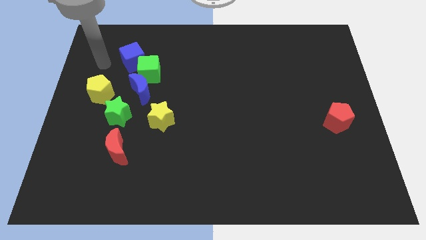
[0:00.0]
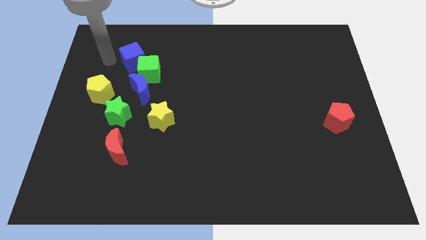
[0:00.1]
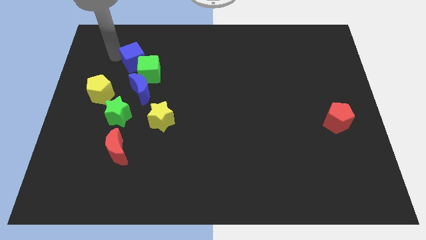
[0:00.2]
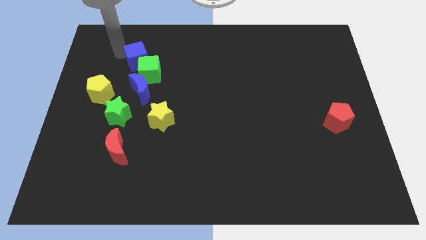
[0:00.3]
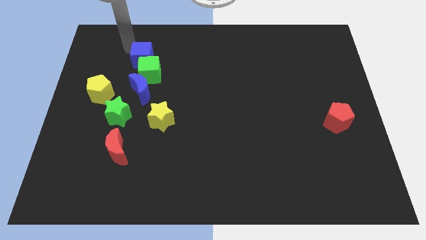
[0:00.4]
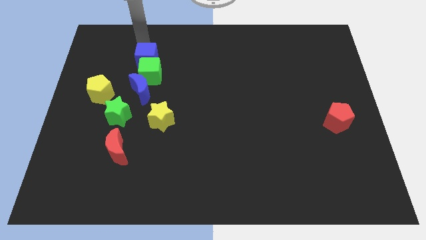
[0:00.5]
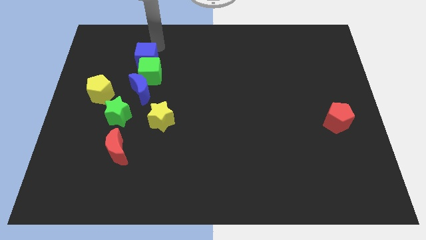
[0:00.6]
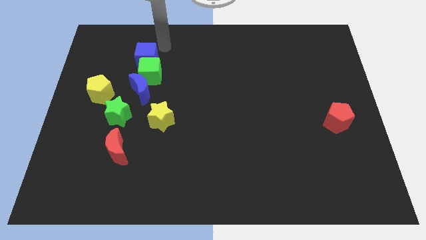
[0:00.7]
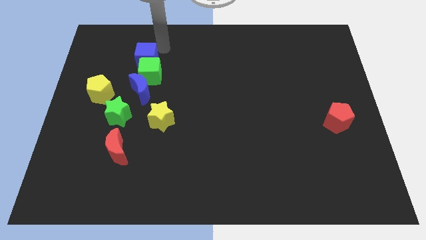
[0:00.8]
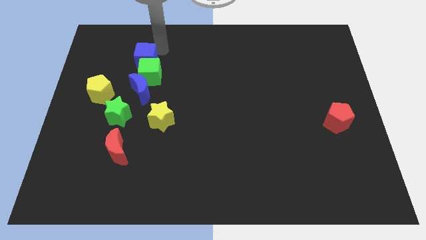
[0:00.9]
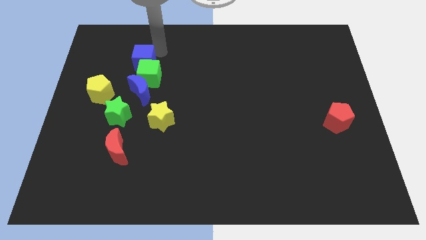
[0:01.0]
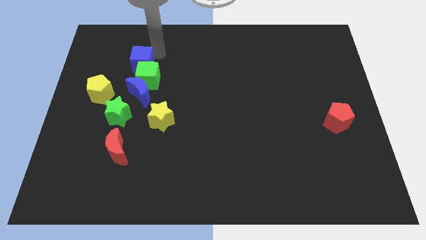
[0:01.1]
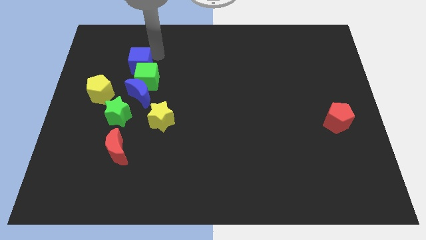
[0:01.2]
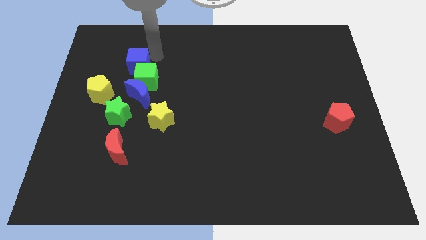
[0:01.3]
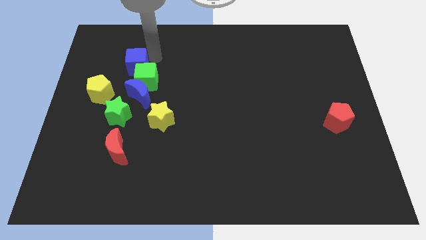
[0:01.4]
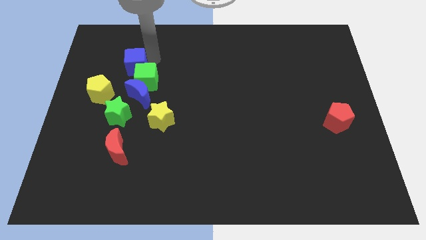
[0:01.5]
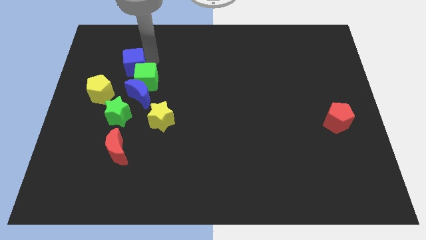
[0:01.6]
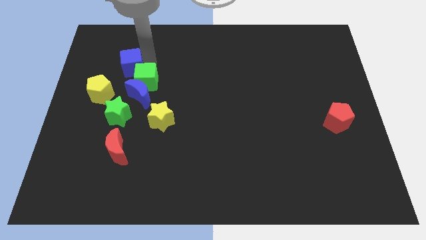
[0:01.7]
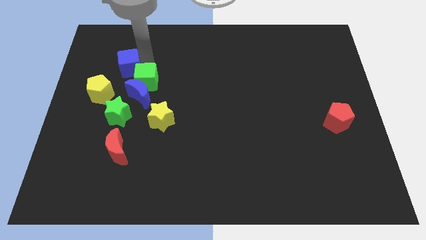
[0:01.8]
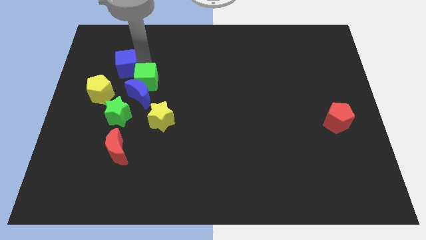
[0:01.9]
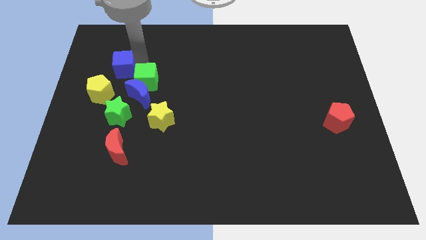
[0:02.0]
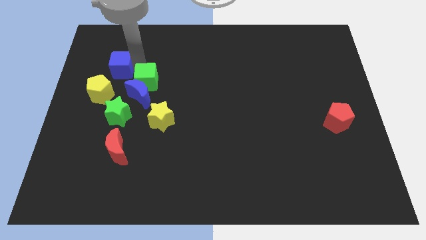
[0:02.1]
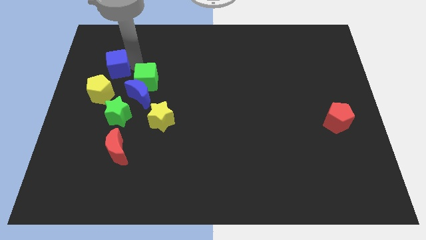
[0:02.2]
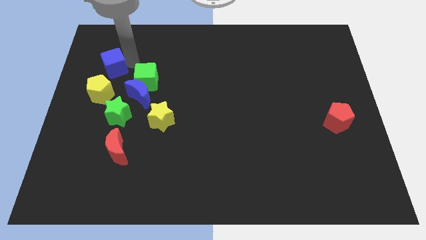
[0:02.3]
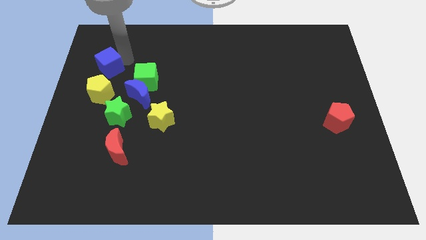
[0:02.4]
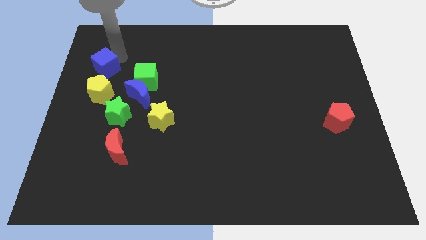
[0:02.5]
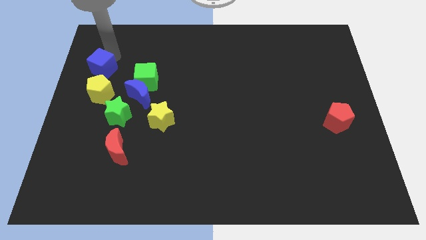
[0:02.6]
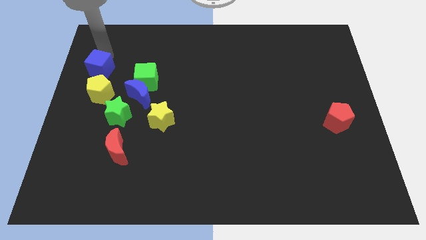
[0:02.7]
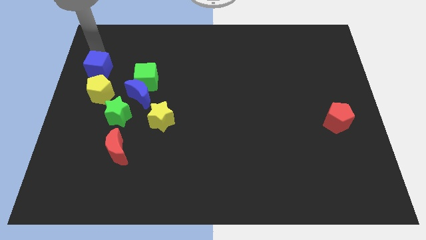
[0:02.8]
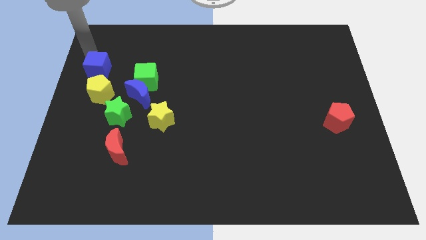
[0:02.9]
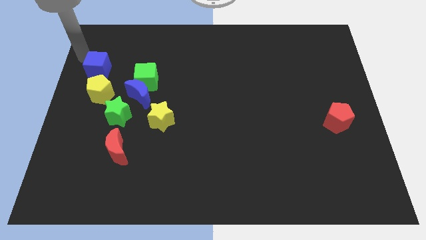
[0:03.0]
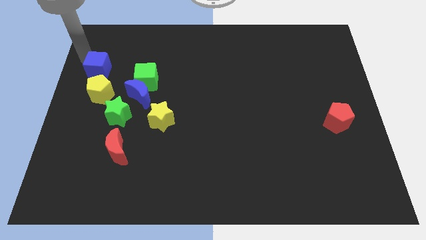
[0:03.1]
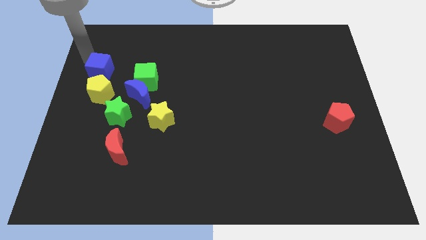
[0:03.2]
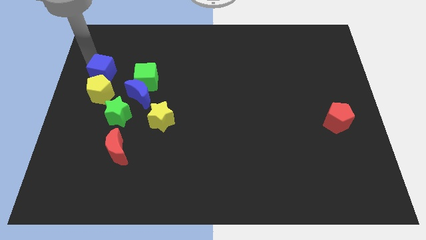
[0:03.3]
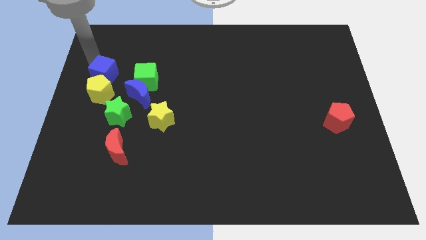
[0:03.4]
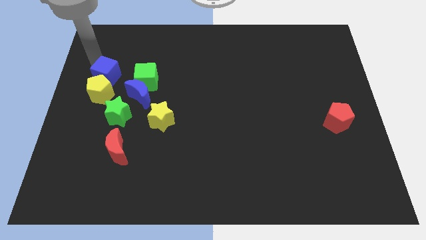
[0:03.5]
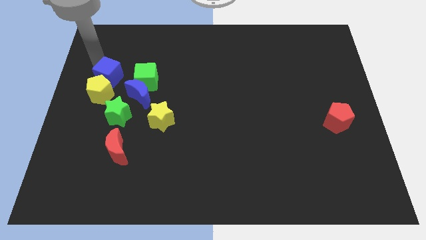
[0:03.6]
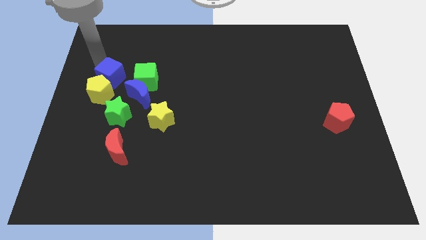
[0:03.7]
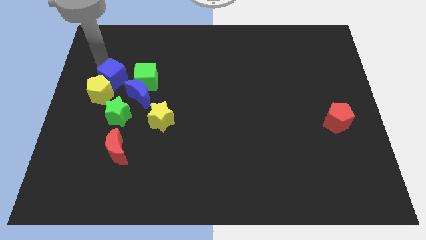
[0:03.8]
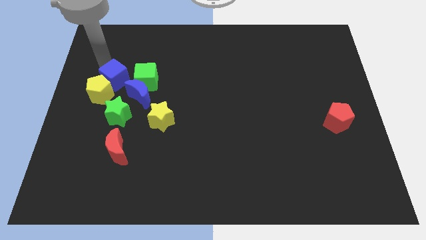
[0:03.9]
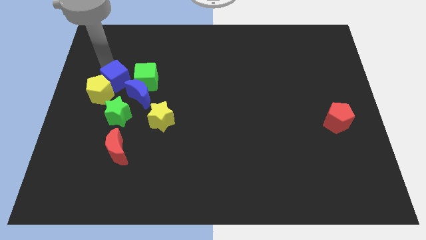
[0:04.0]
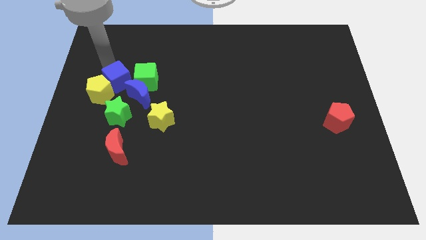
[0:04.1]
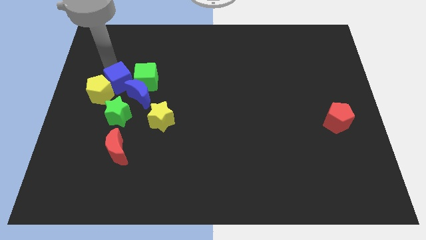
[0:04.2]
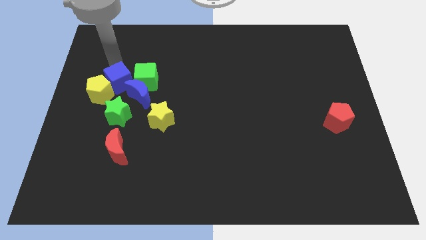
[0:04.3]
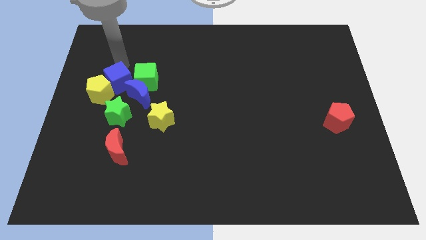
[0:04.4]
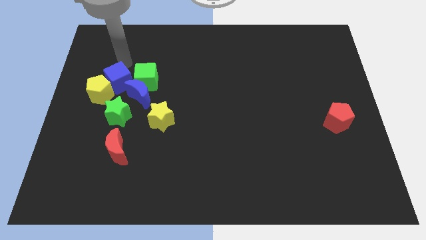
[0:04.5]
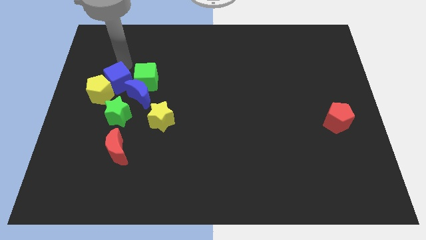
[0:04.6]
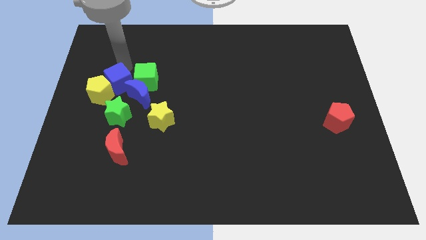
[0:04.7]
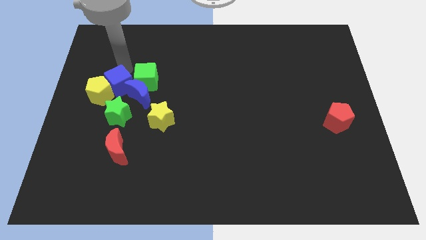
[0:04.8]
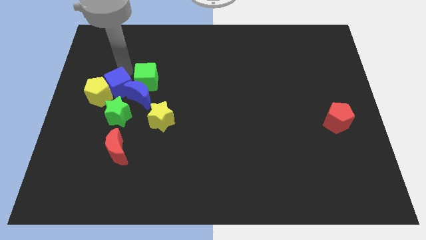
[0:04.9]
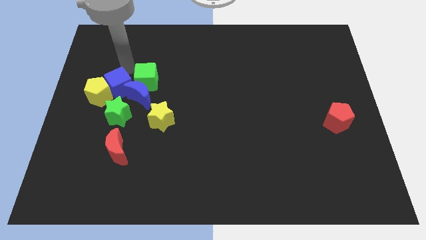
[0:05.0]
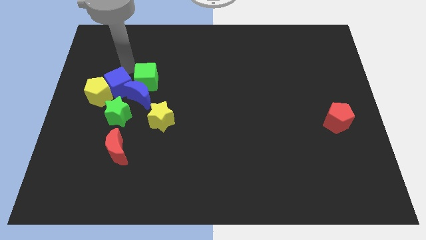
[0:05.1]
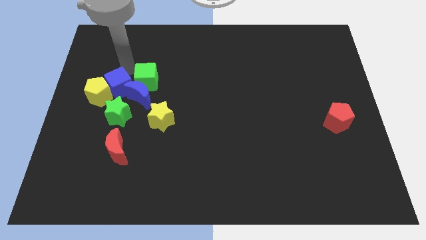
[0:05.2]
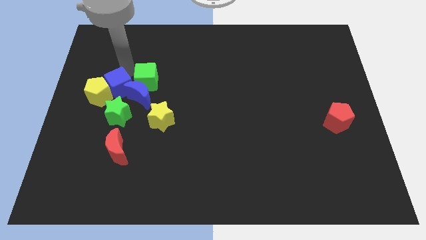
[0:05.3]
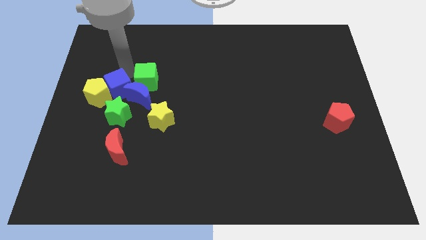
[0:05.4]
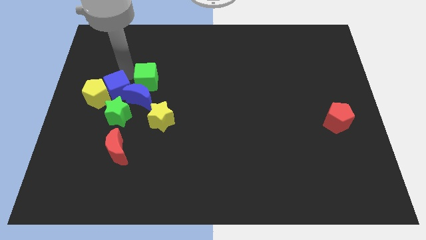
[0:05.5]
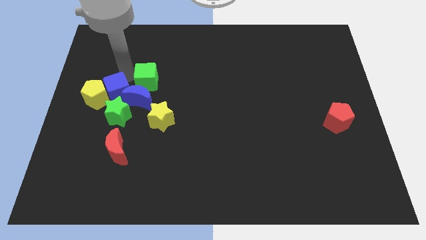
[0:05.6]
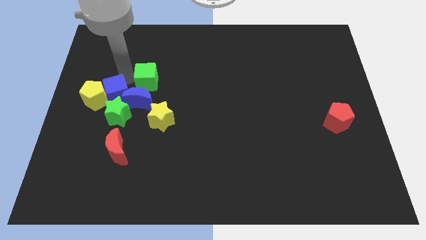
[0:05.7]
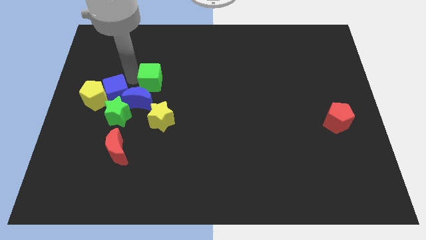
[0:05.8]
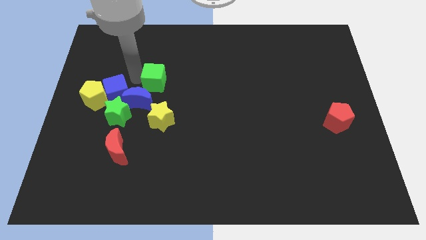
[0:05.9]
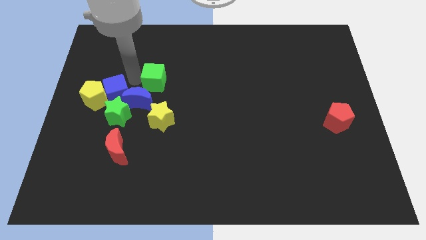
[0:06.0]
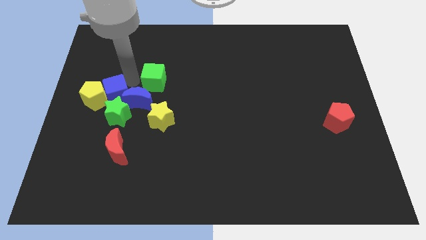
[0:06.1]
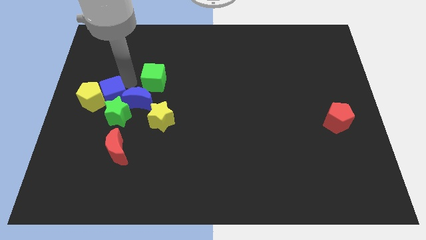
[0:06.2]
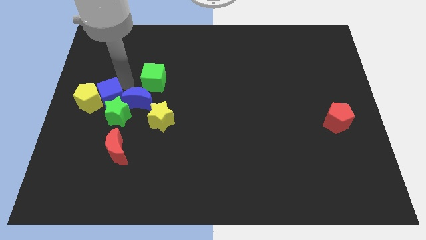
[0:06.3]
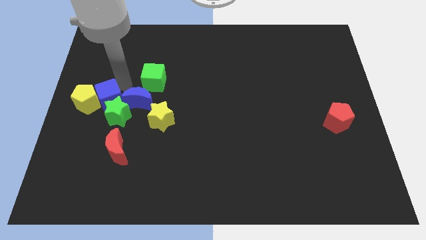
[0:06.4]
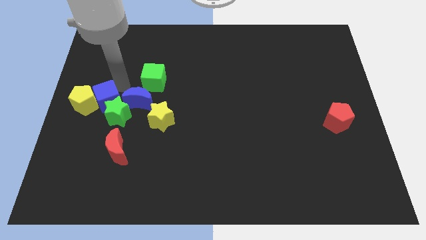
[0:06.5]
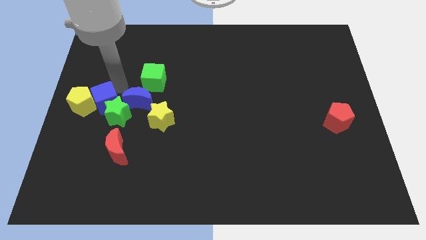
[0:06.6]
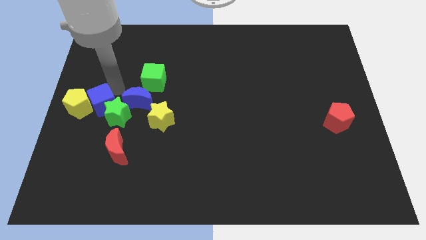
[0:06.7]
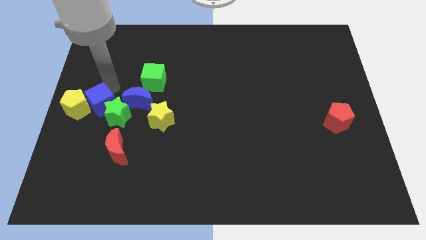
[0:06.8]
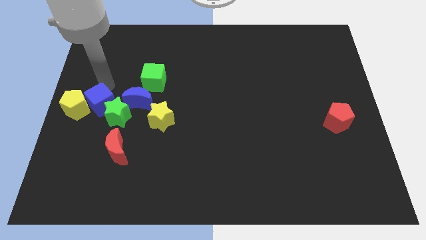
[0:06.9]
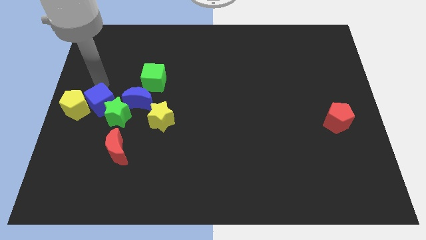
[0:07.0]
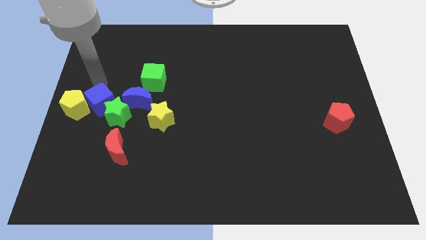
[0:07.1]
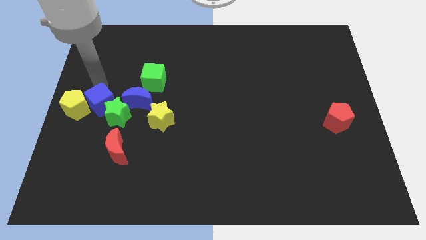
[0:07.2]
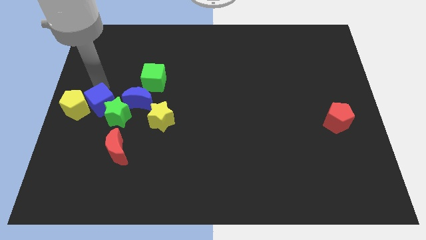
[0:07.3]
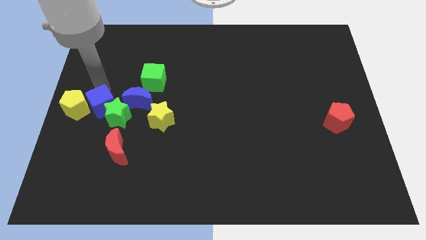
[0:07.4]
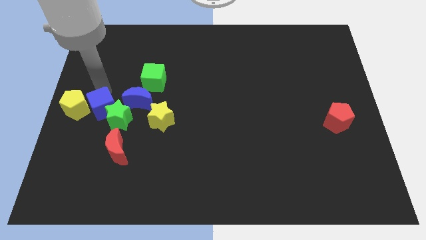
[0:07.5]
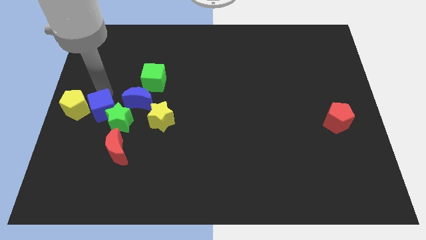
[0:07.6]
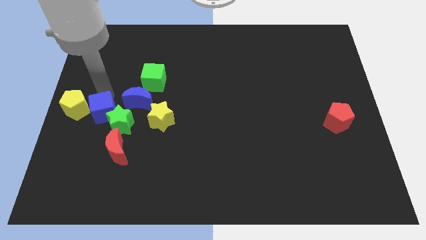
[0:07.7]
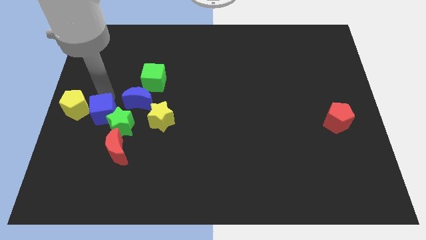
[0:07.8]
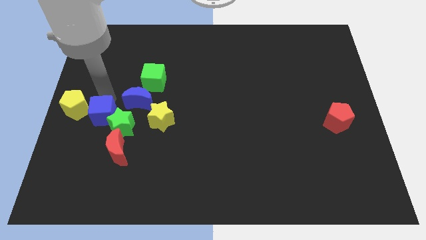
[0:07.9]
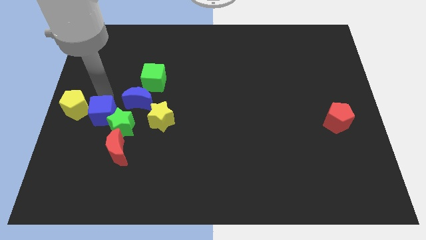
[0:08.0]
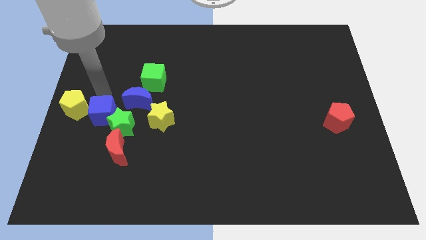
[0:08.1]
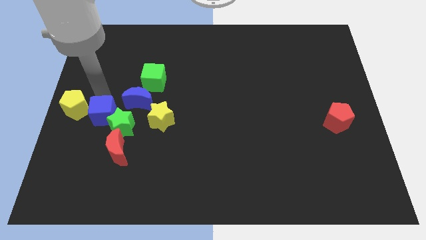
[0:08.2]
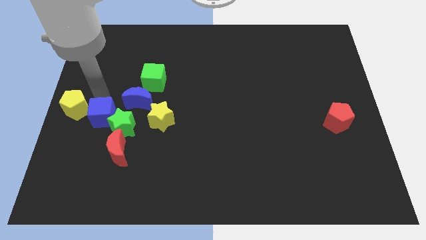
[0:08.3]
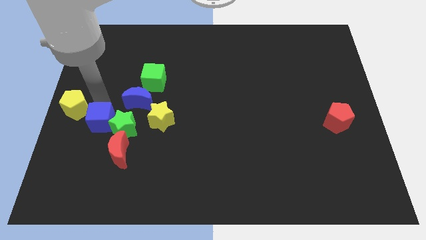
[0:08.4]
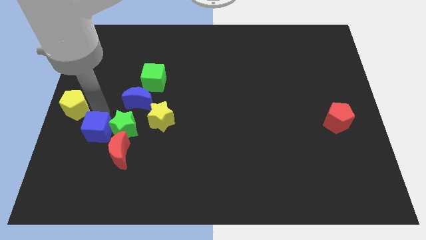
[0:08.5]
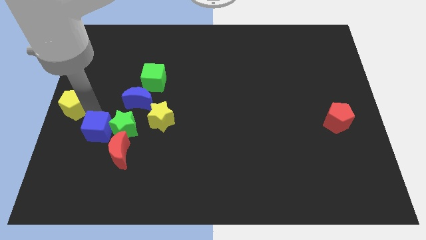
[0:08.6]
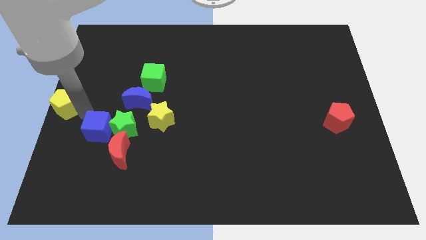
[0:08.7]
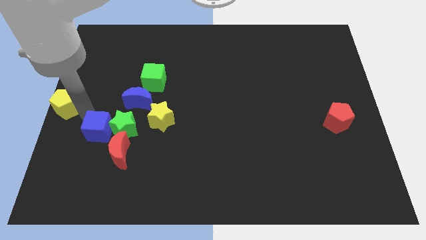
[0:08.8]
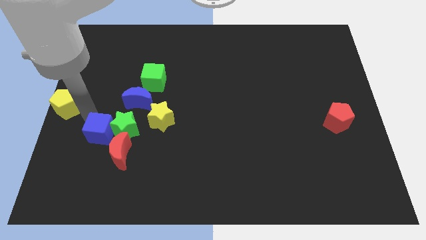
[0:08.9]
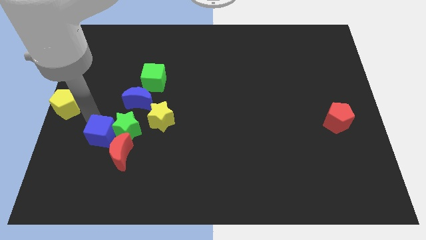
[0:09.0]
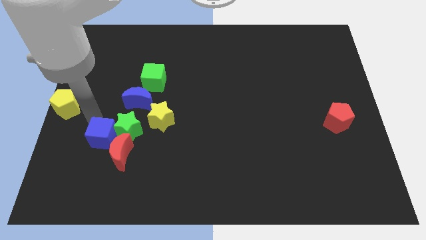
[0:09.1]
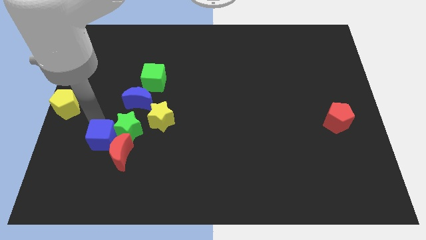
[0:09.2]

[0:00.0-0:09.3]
move the blue cube towards the red moon
